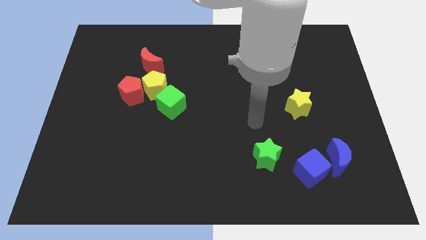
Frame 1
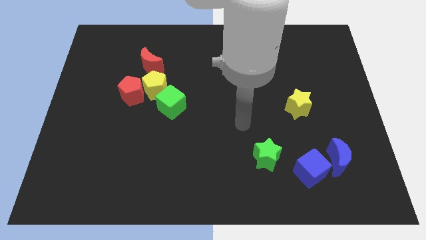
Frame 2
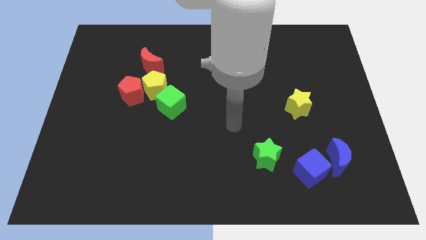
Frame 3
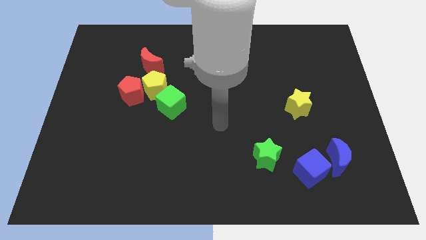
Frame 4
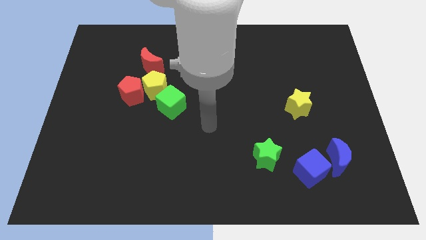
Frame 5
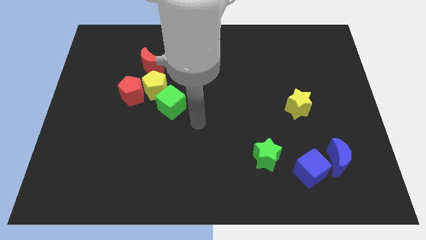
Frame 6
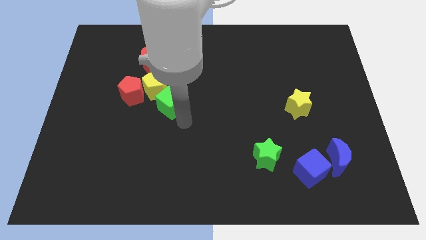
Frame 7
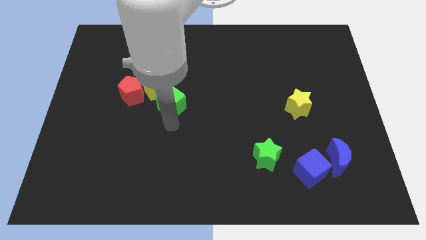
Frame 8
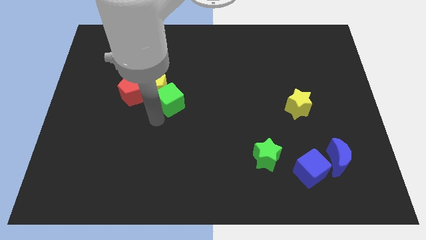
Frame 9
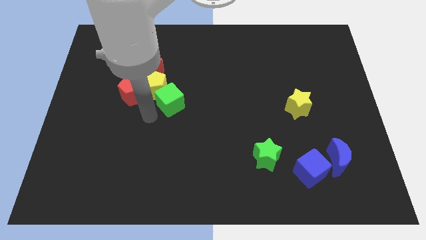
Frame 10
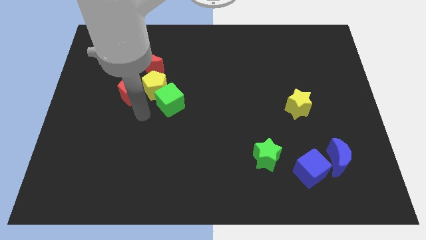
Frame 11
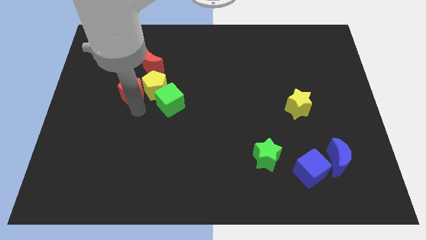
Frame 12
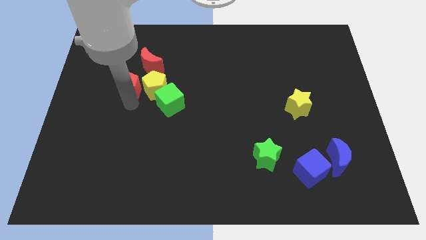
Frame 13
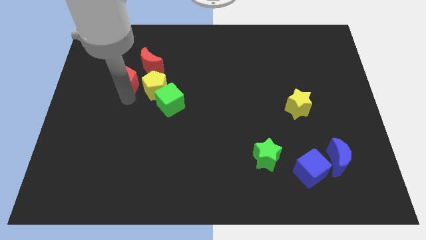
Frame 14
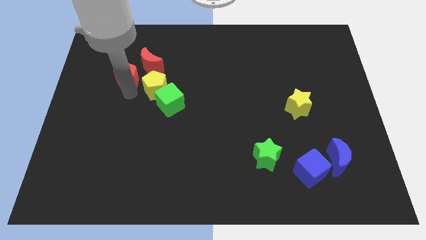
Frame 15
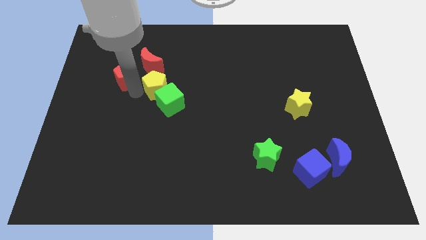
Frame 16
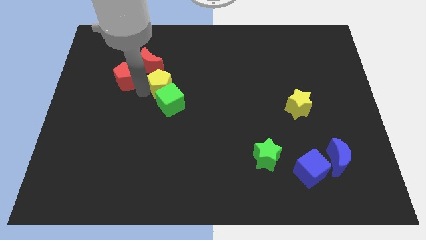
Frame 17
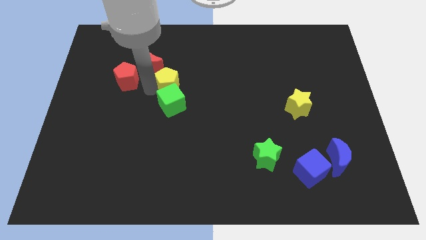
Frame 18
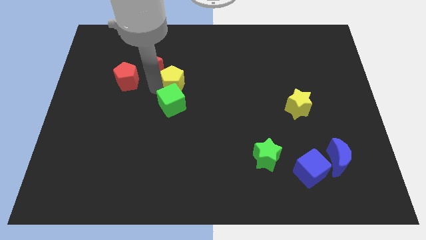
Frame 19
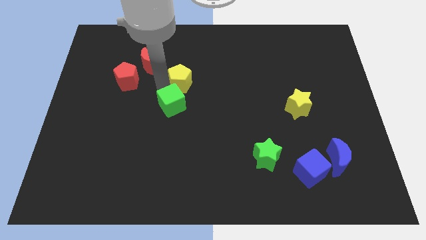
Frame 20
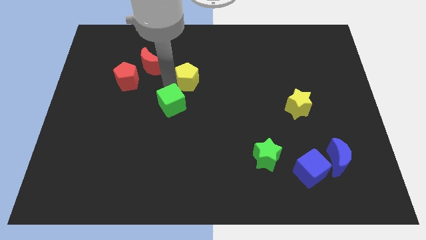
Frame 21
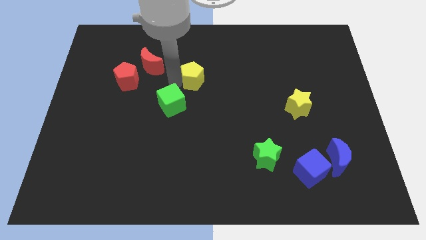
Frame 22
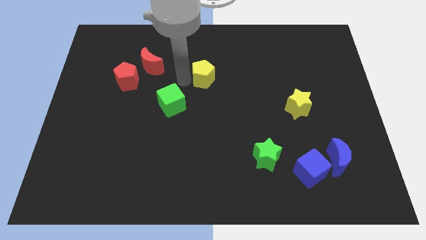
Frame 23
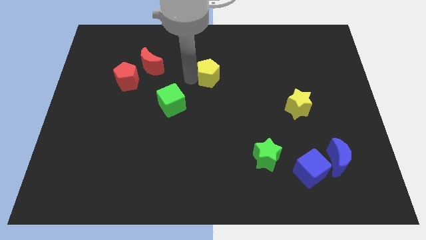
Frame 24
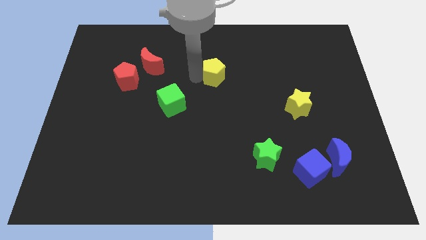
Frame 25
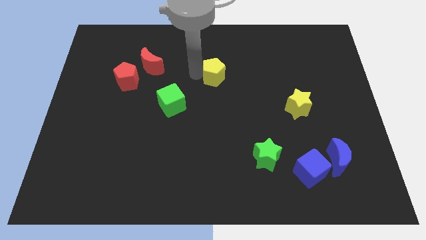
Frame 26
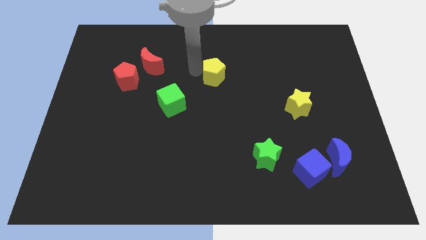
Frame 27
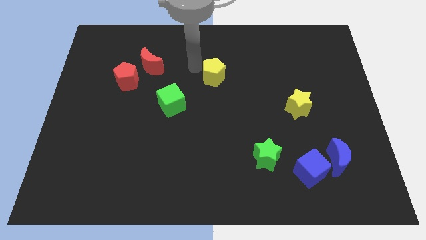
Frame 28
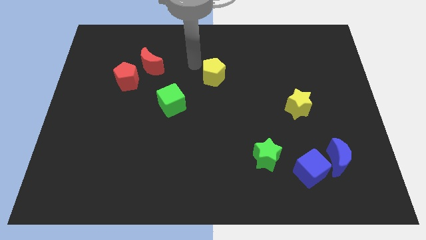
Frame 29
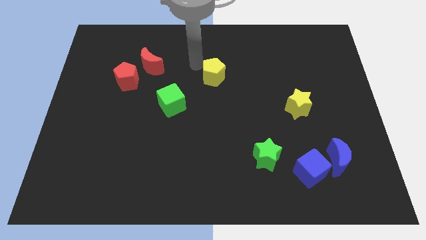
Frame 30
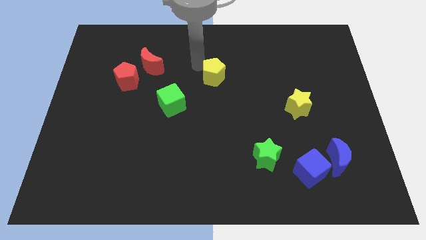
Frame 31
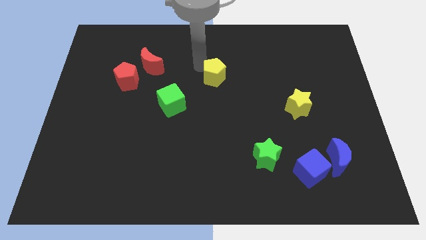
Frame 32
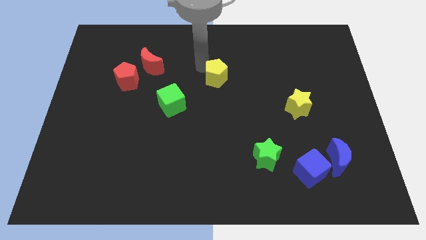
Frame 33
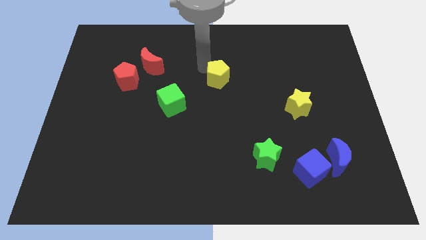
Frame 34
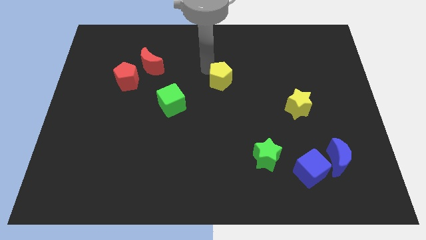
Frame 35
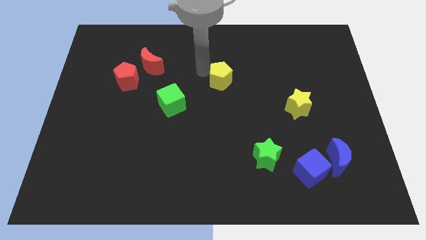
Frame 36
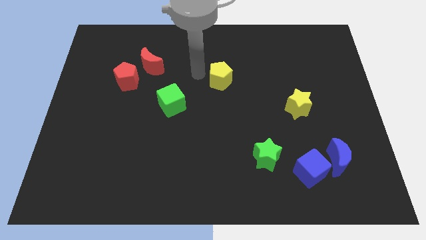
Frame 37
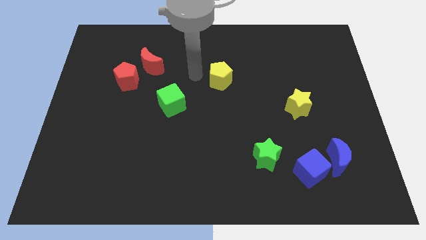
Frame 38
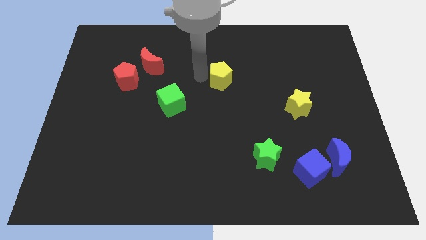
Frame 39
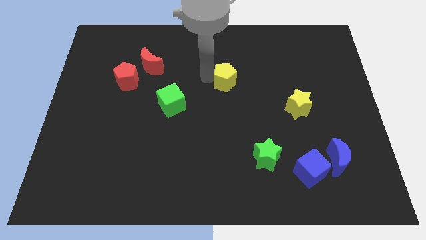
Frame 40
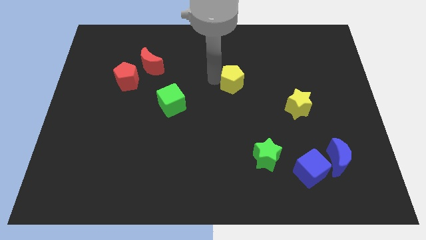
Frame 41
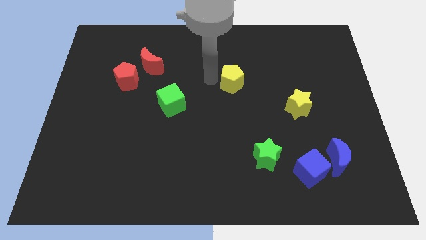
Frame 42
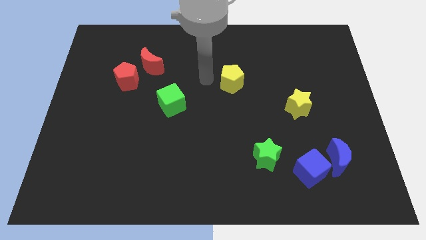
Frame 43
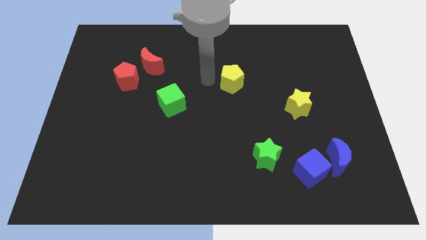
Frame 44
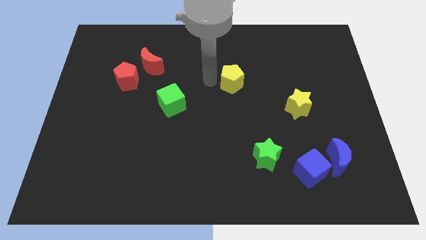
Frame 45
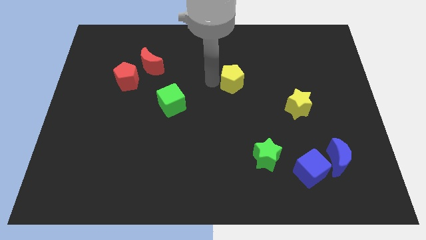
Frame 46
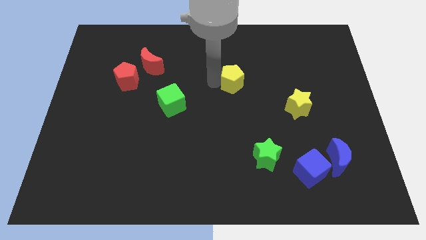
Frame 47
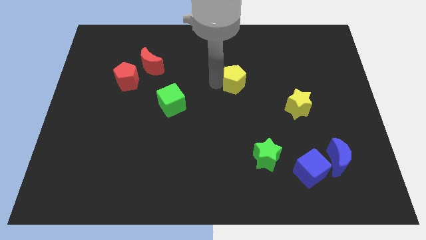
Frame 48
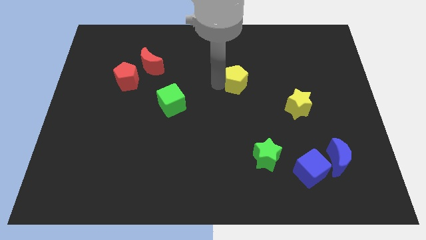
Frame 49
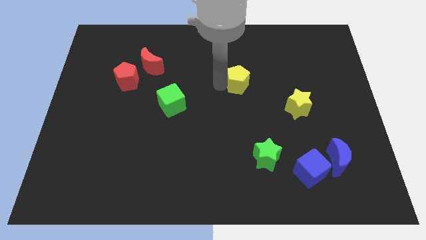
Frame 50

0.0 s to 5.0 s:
push the yellow pentagon right

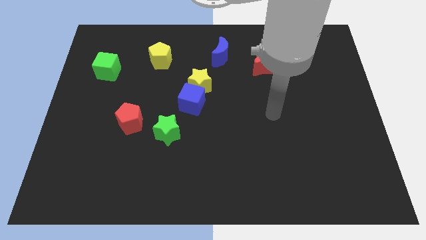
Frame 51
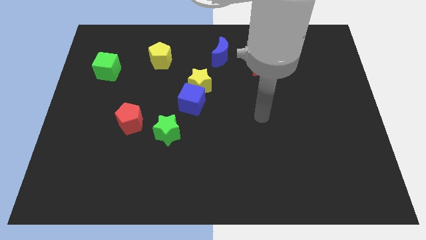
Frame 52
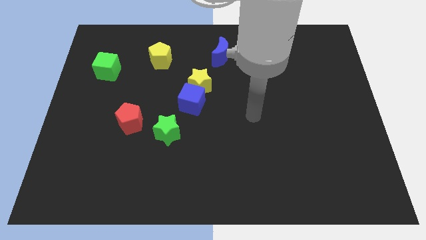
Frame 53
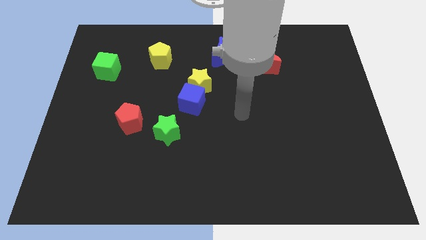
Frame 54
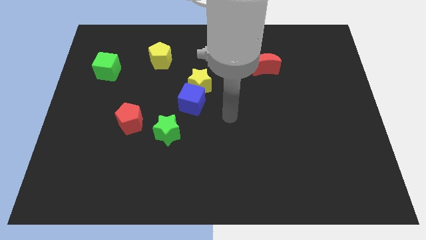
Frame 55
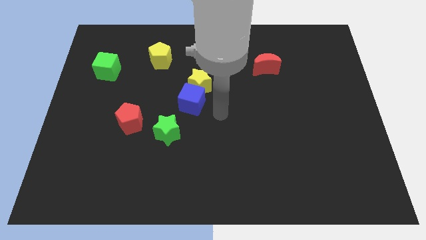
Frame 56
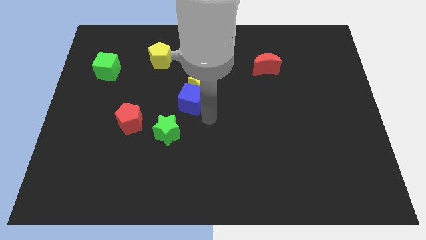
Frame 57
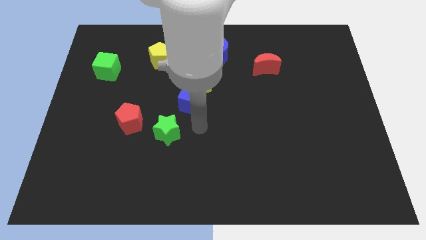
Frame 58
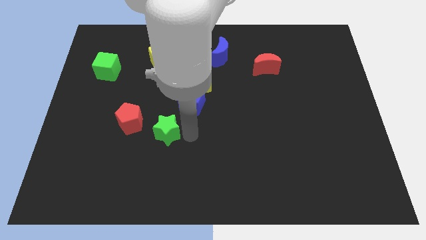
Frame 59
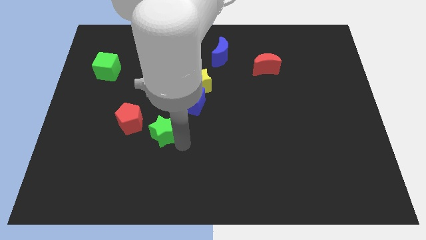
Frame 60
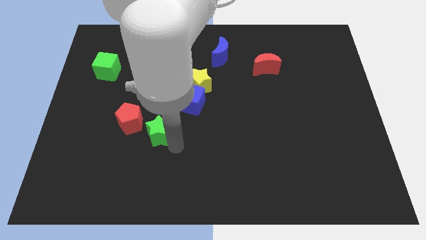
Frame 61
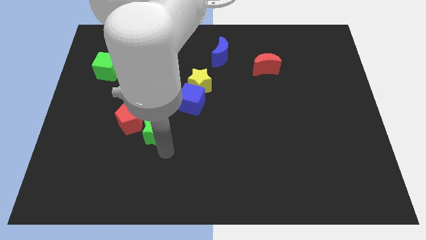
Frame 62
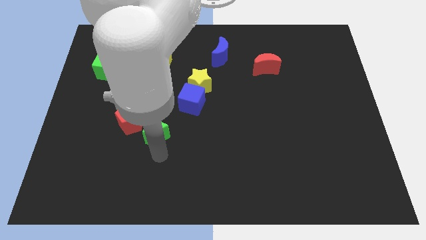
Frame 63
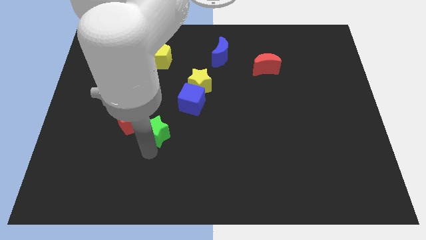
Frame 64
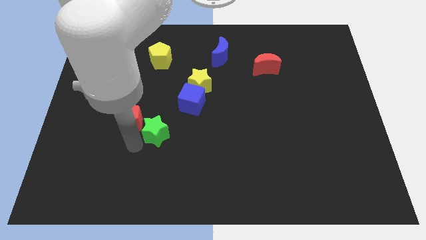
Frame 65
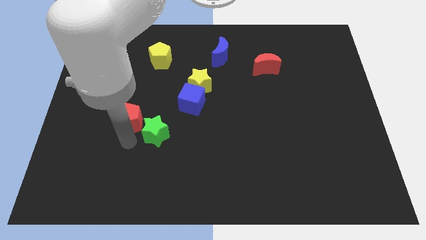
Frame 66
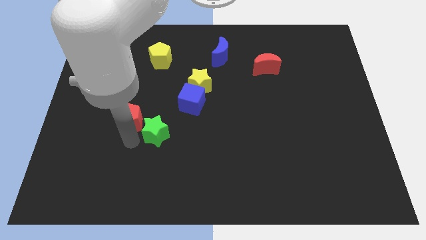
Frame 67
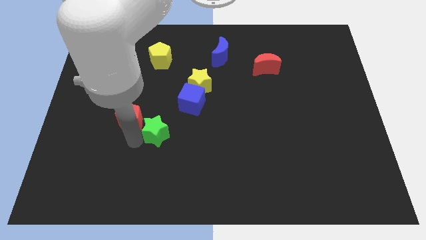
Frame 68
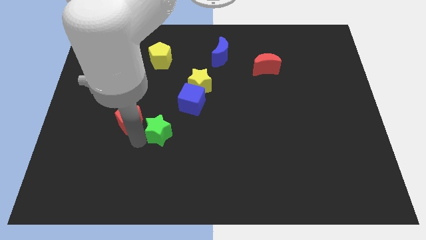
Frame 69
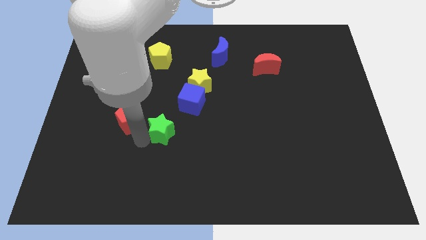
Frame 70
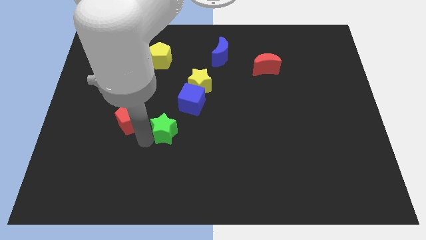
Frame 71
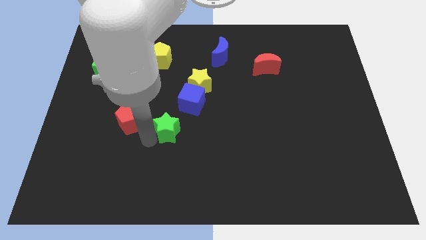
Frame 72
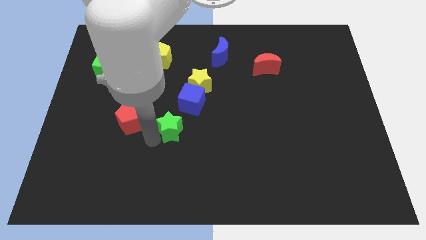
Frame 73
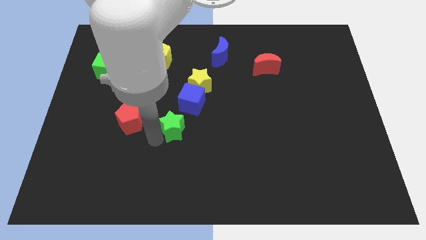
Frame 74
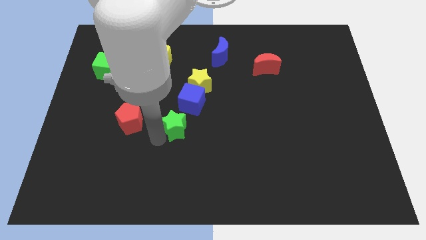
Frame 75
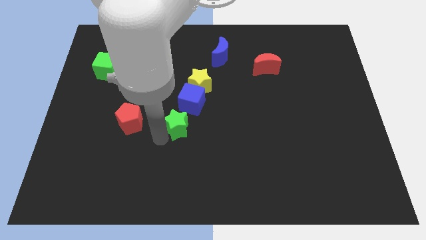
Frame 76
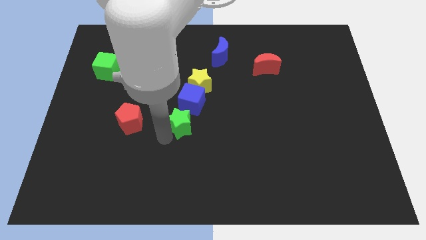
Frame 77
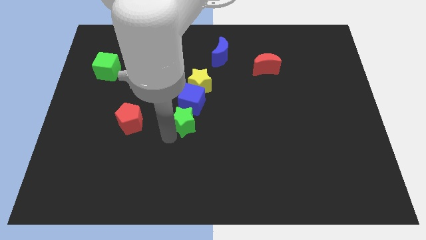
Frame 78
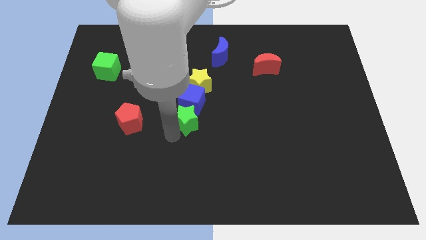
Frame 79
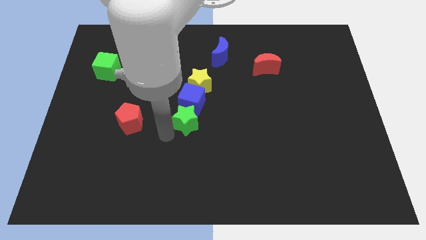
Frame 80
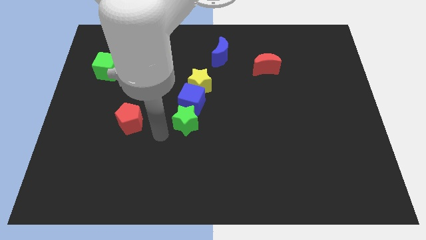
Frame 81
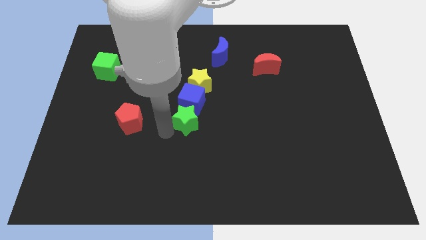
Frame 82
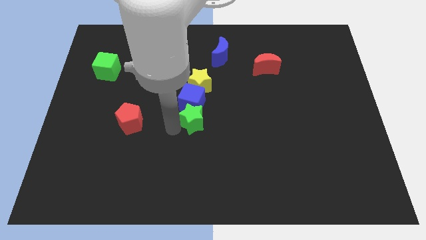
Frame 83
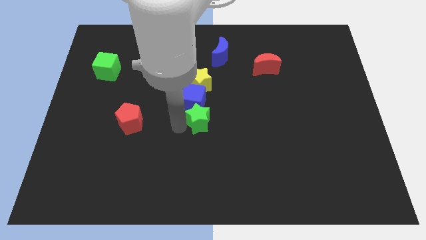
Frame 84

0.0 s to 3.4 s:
push the green star slightly up and right diagonally
